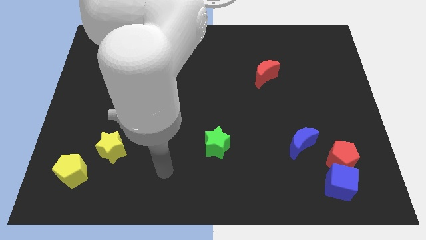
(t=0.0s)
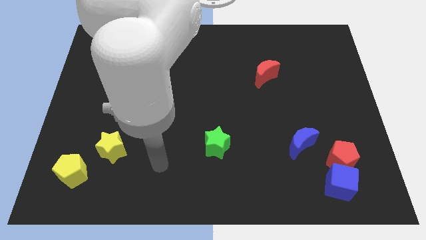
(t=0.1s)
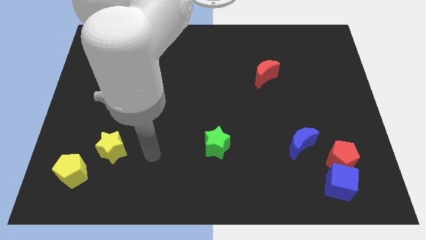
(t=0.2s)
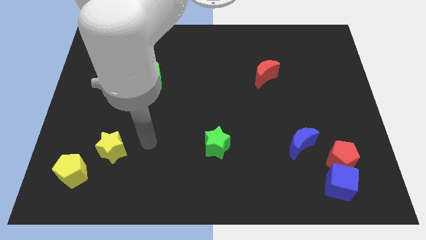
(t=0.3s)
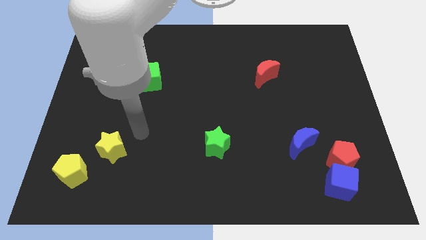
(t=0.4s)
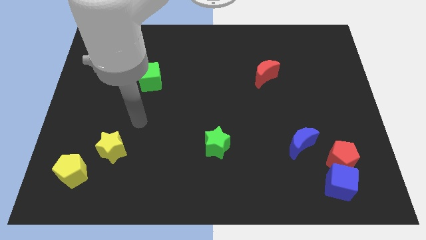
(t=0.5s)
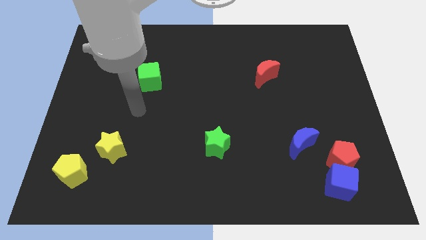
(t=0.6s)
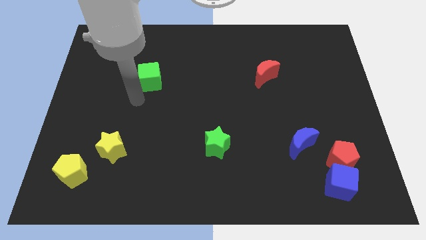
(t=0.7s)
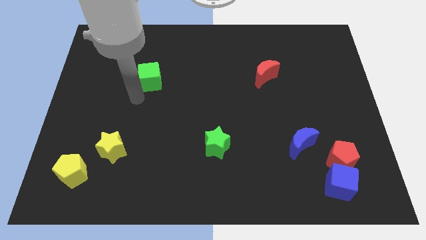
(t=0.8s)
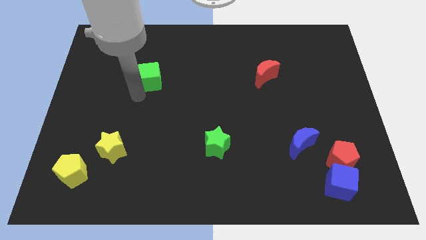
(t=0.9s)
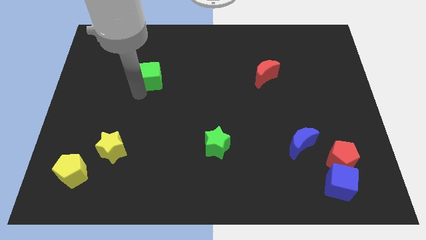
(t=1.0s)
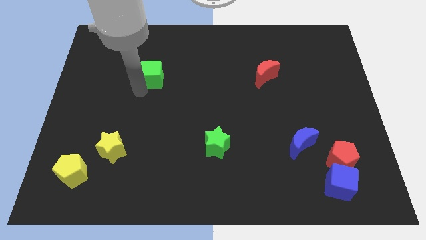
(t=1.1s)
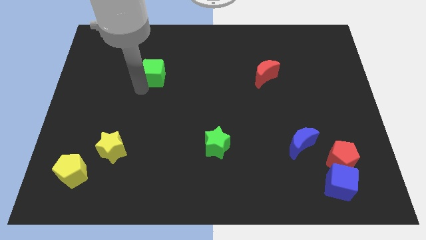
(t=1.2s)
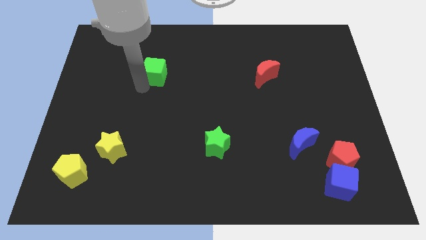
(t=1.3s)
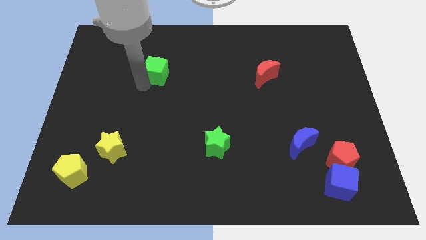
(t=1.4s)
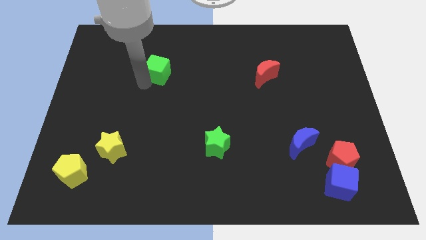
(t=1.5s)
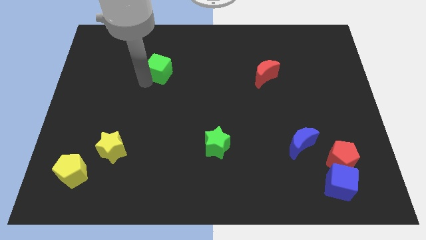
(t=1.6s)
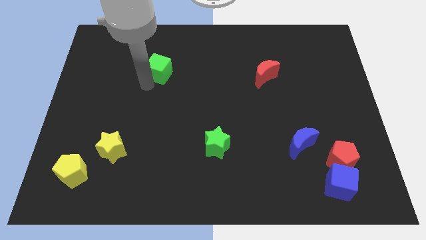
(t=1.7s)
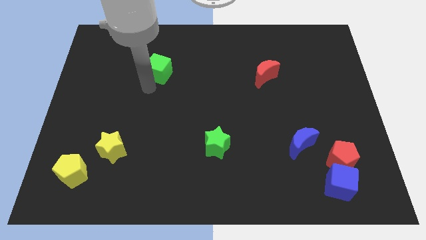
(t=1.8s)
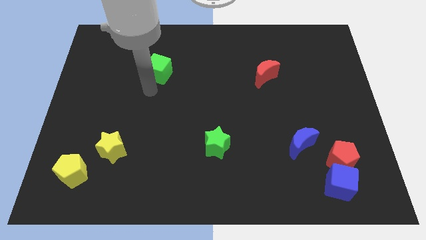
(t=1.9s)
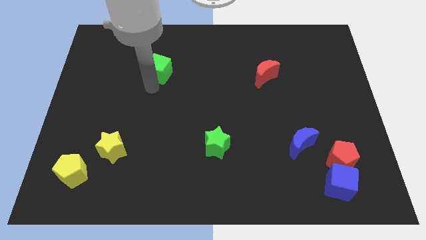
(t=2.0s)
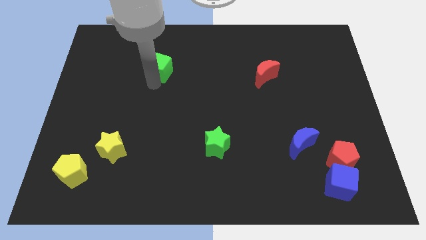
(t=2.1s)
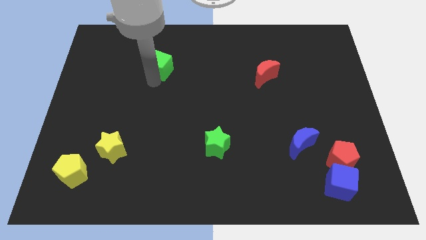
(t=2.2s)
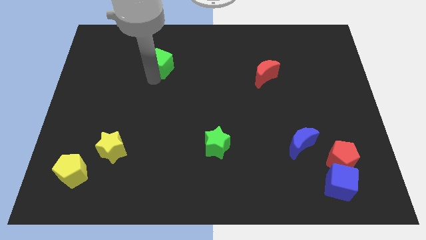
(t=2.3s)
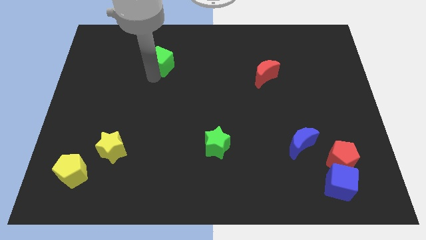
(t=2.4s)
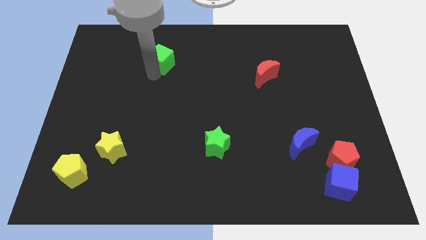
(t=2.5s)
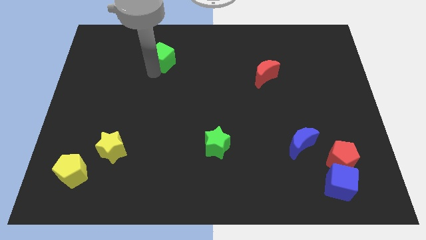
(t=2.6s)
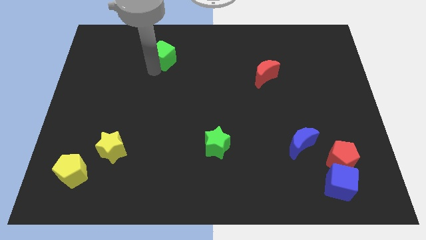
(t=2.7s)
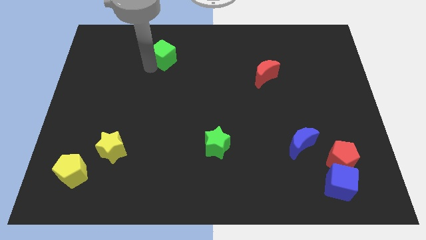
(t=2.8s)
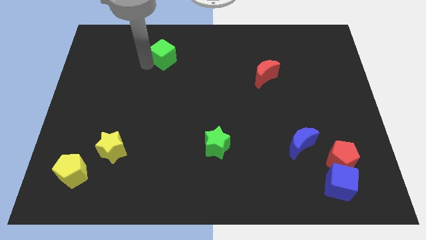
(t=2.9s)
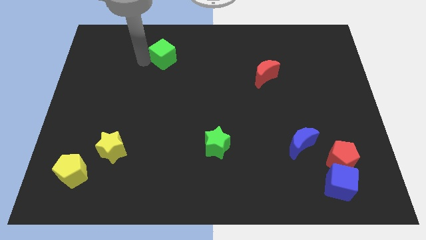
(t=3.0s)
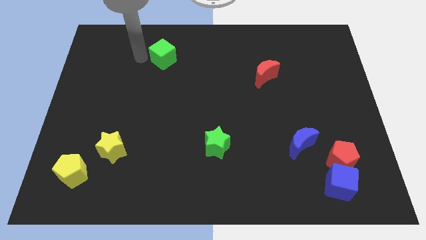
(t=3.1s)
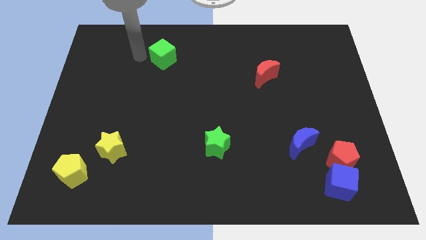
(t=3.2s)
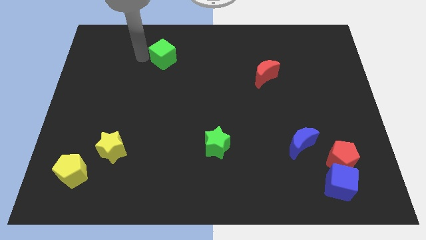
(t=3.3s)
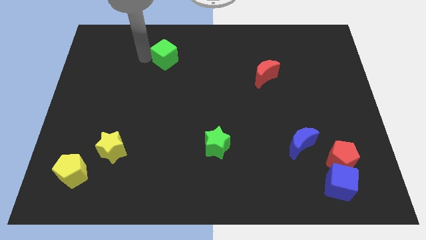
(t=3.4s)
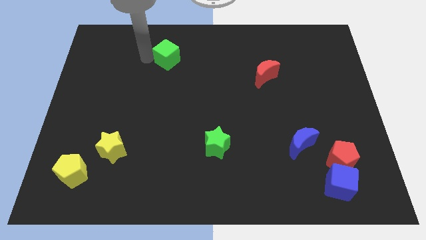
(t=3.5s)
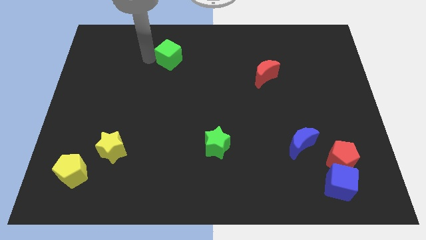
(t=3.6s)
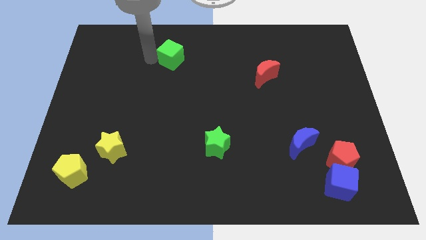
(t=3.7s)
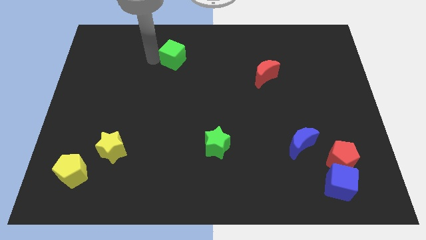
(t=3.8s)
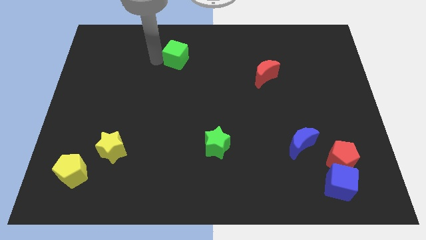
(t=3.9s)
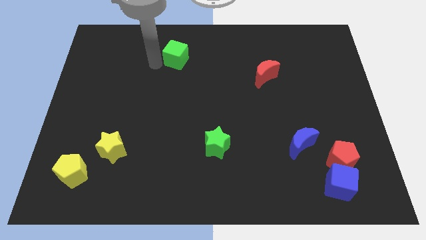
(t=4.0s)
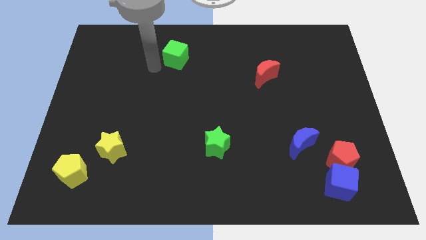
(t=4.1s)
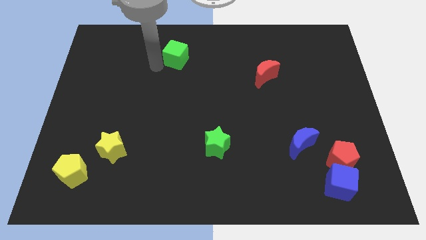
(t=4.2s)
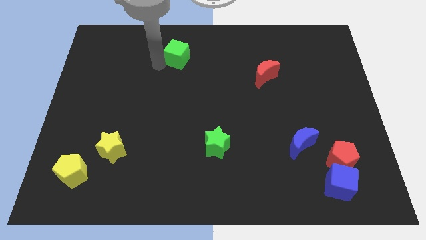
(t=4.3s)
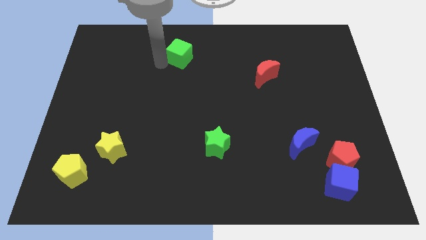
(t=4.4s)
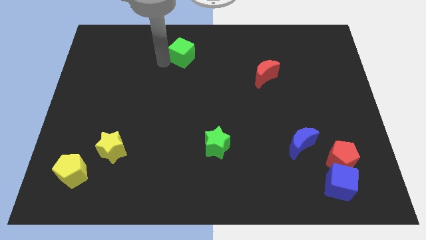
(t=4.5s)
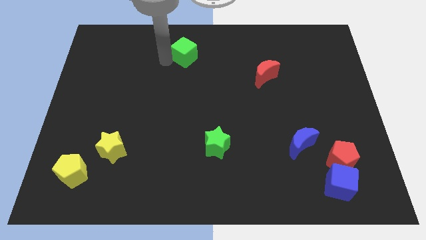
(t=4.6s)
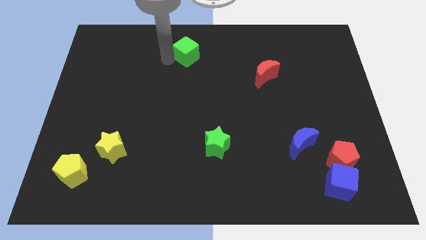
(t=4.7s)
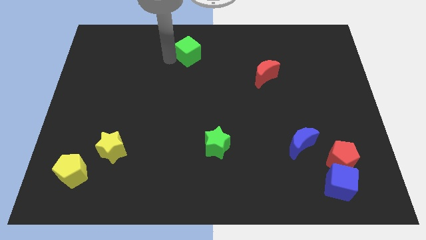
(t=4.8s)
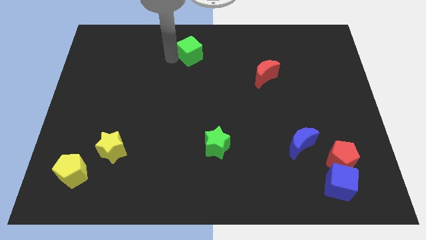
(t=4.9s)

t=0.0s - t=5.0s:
move the green cube to the top

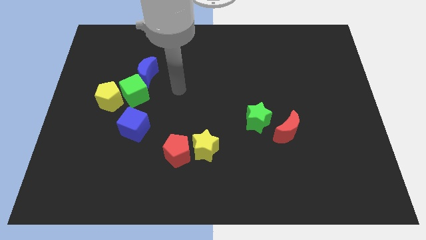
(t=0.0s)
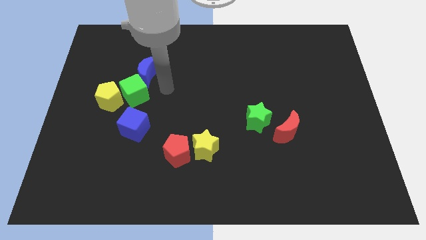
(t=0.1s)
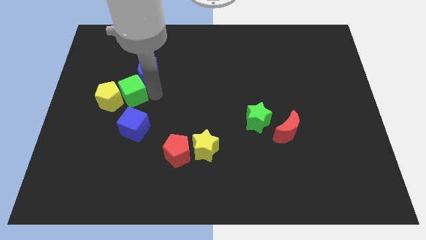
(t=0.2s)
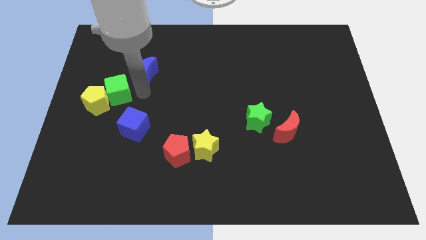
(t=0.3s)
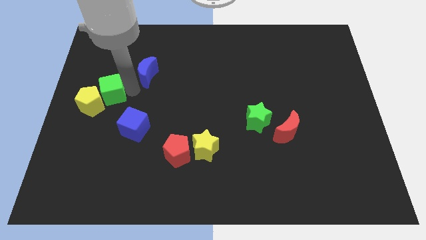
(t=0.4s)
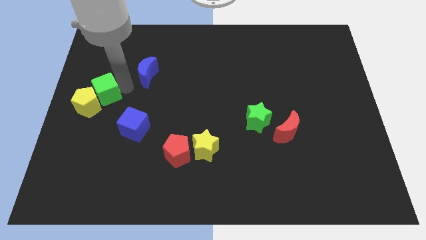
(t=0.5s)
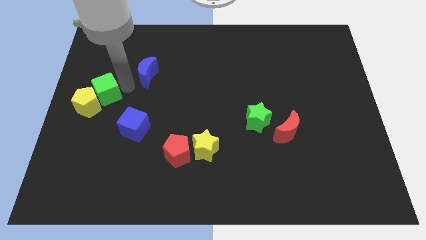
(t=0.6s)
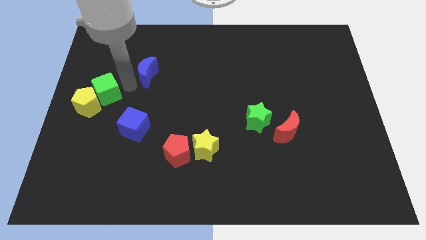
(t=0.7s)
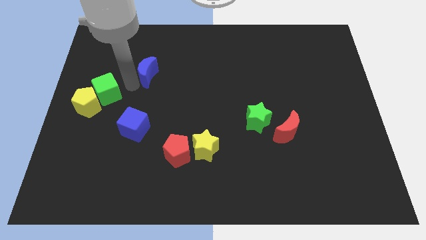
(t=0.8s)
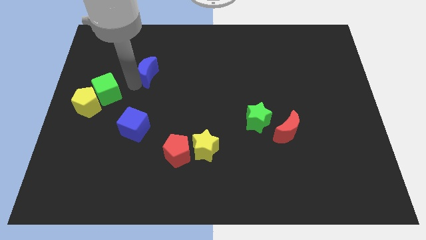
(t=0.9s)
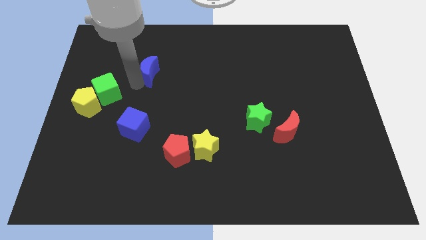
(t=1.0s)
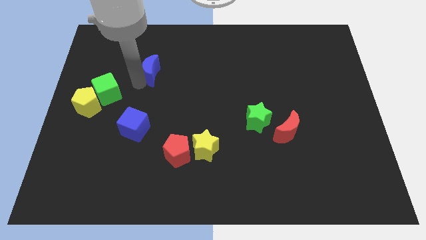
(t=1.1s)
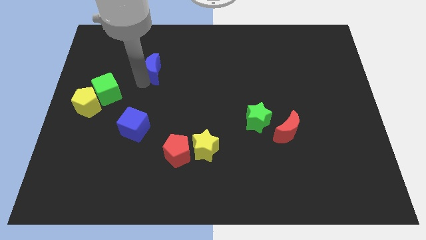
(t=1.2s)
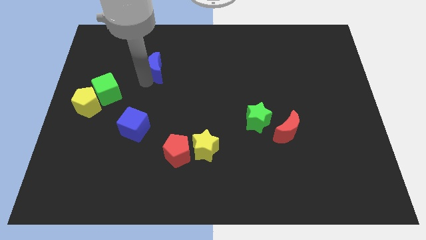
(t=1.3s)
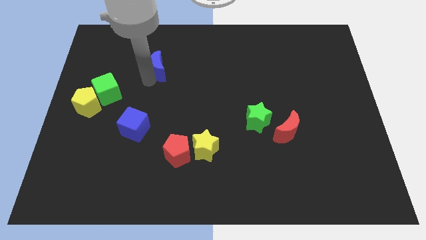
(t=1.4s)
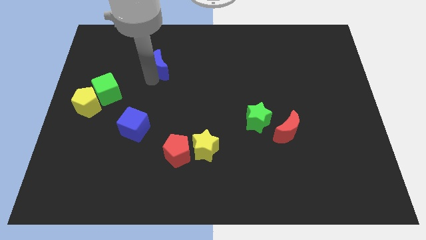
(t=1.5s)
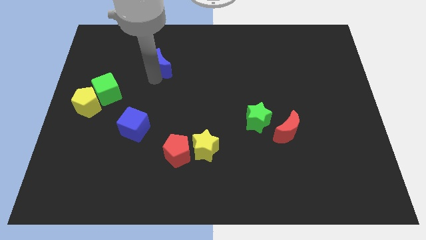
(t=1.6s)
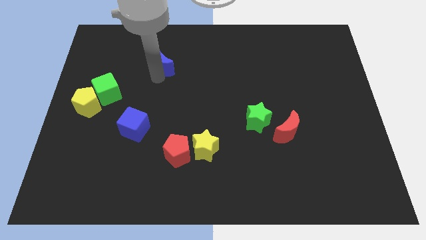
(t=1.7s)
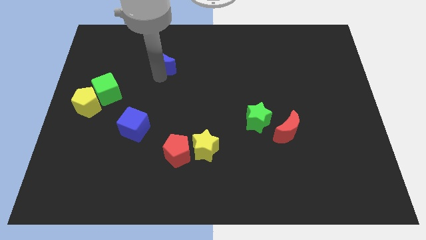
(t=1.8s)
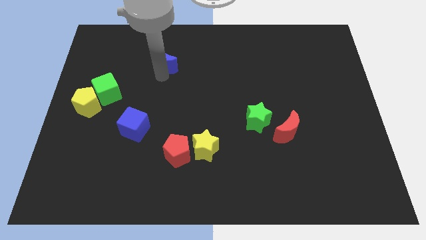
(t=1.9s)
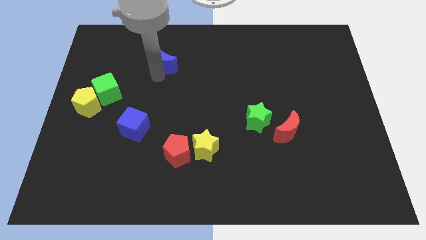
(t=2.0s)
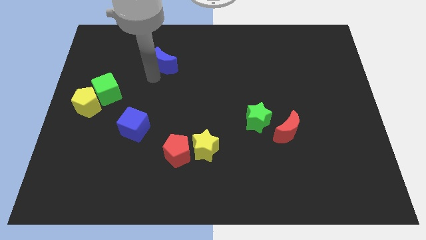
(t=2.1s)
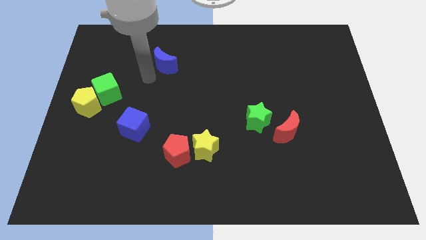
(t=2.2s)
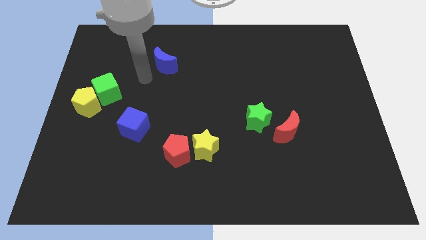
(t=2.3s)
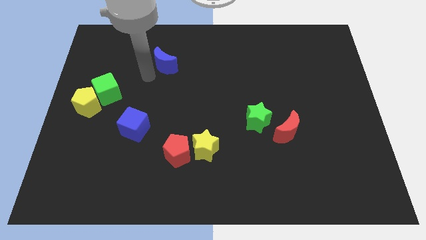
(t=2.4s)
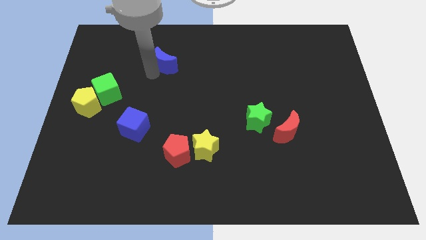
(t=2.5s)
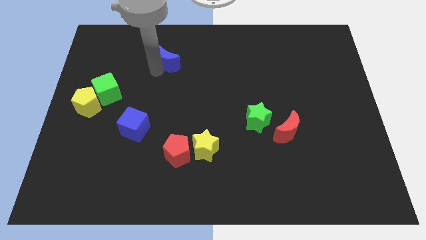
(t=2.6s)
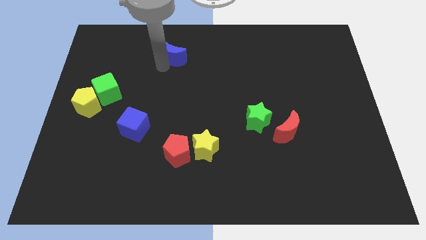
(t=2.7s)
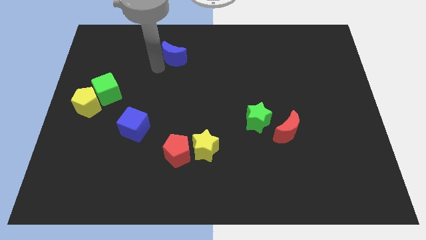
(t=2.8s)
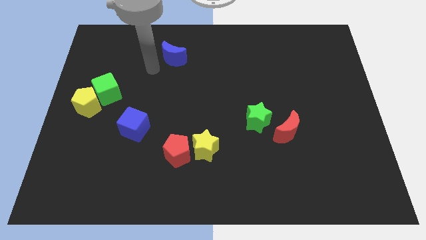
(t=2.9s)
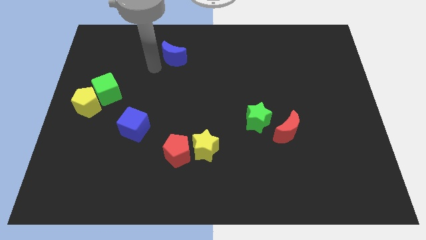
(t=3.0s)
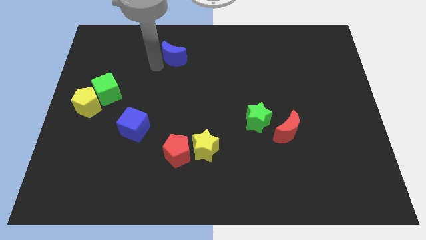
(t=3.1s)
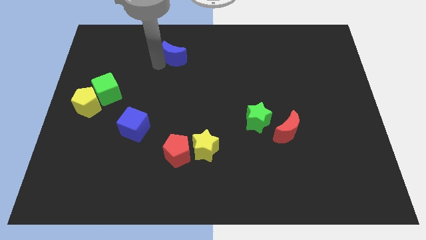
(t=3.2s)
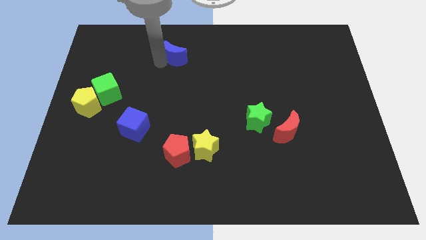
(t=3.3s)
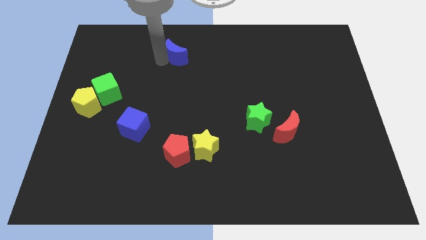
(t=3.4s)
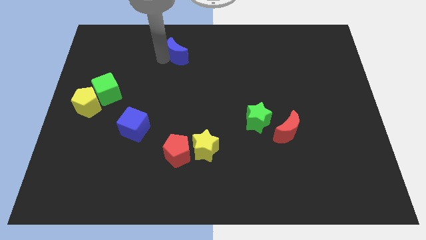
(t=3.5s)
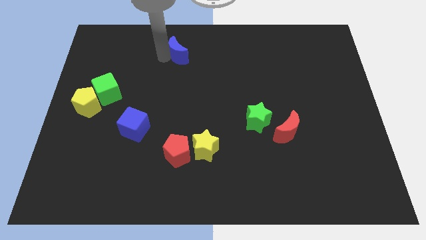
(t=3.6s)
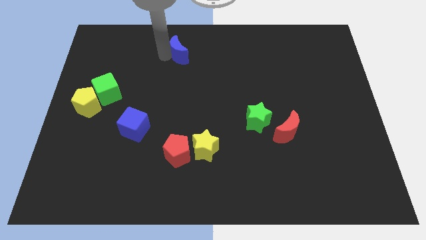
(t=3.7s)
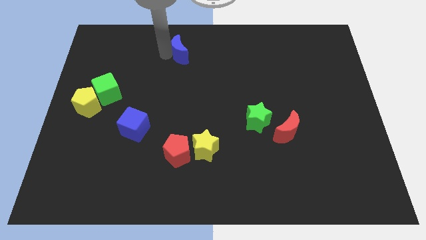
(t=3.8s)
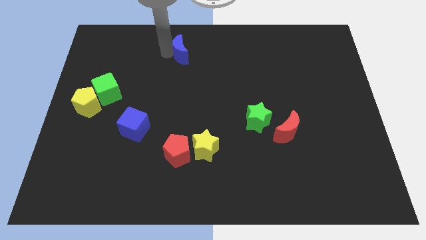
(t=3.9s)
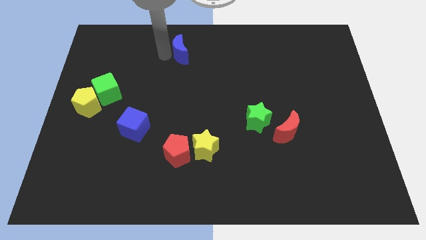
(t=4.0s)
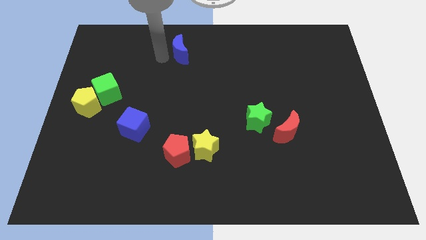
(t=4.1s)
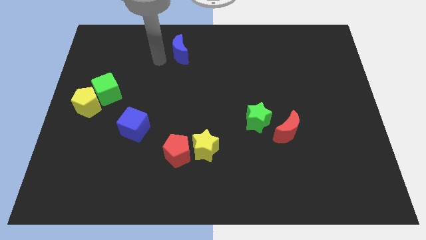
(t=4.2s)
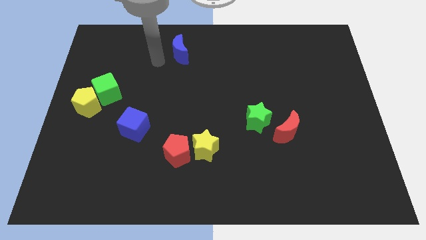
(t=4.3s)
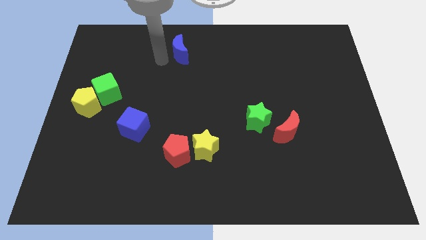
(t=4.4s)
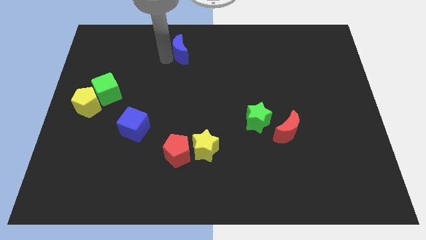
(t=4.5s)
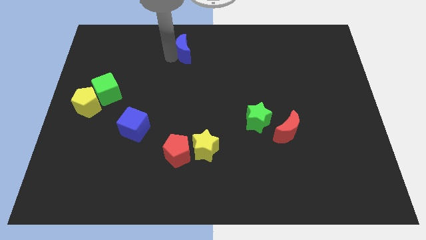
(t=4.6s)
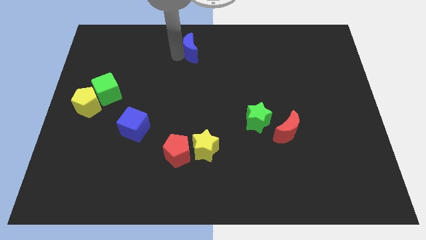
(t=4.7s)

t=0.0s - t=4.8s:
put the blue moon to the top side
